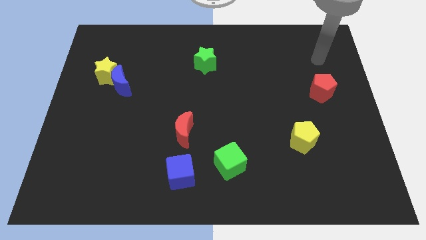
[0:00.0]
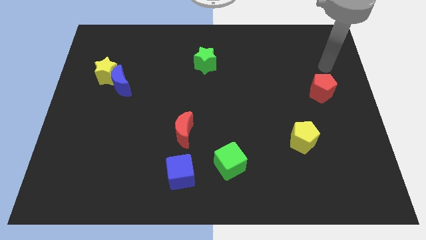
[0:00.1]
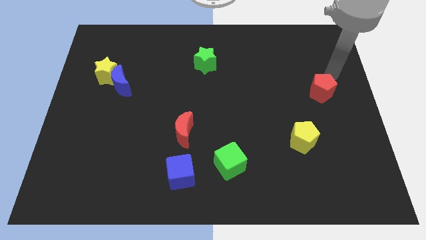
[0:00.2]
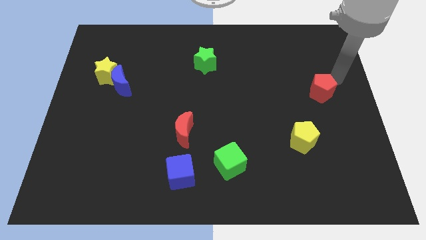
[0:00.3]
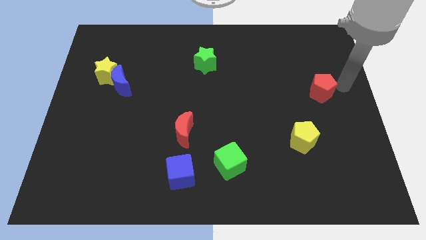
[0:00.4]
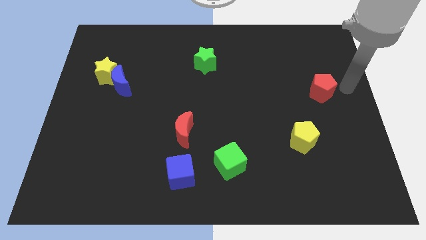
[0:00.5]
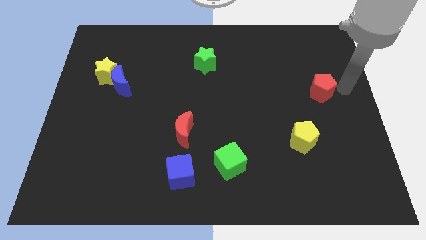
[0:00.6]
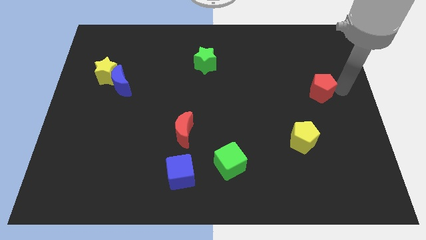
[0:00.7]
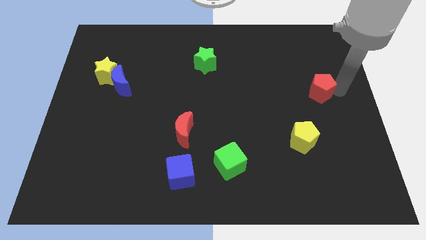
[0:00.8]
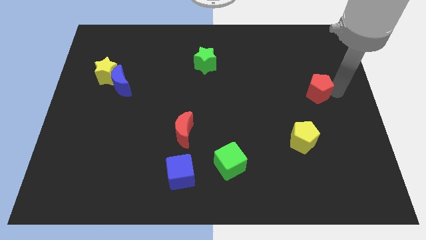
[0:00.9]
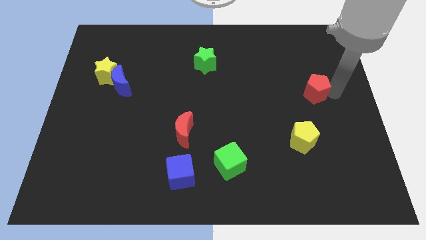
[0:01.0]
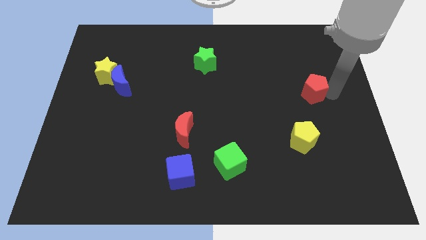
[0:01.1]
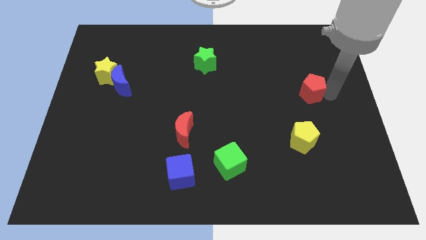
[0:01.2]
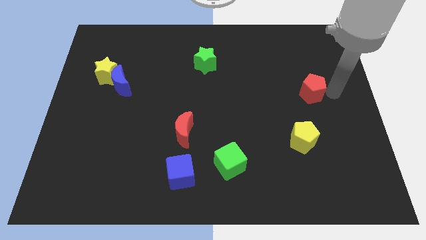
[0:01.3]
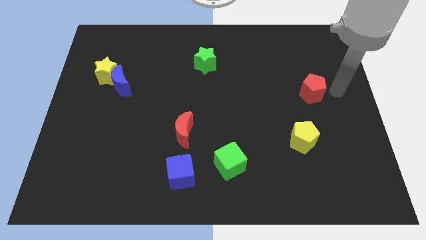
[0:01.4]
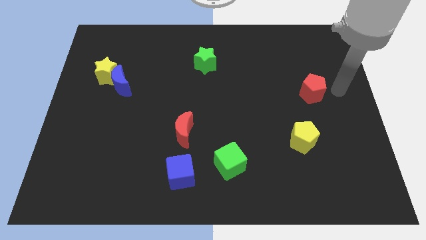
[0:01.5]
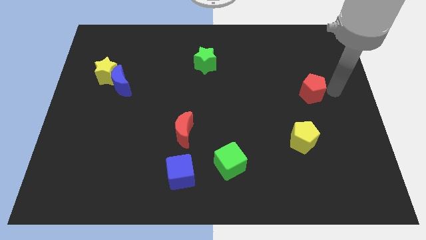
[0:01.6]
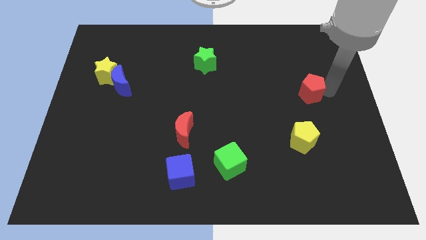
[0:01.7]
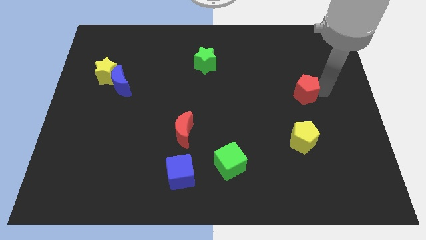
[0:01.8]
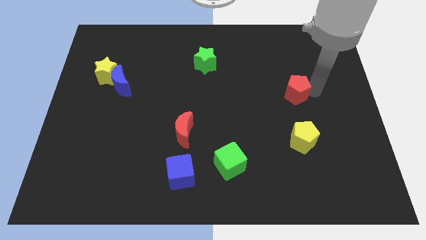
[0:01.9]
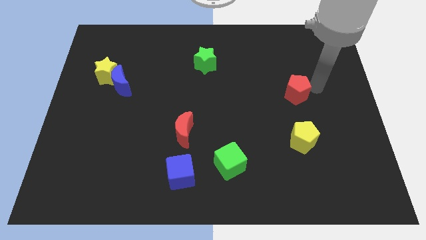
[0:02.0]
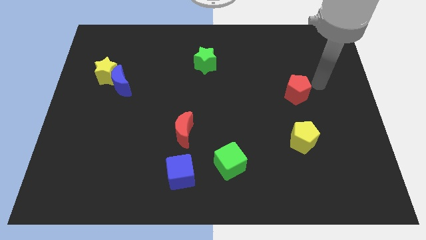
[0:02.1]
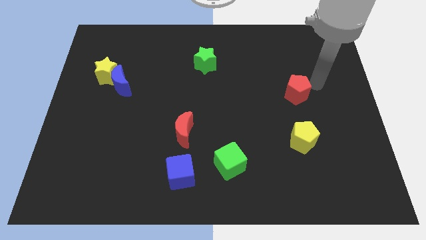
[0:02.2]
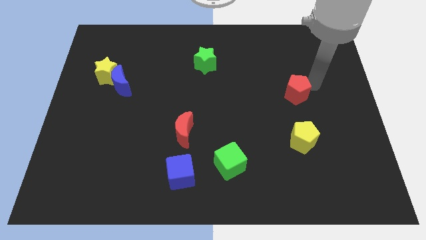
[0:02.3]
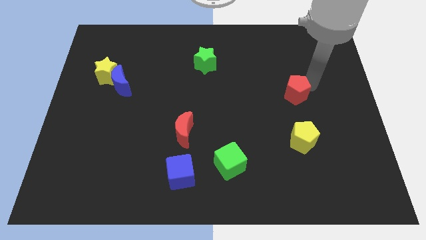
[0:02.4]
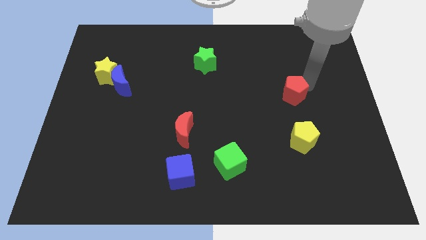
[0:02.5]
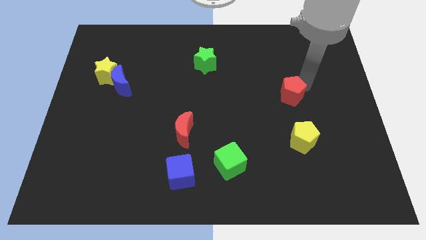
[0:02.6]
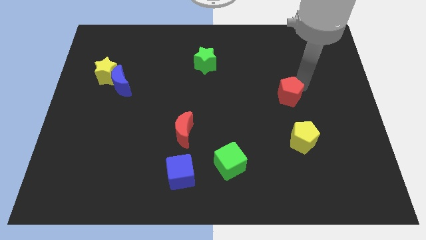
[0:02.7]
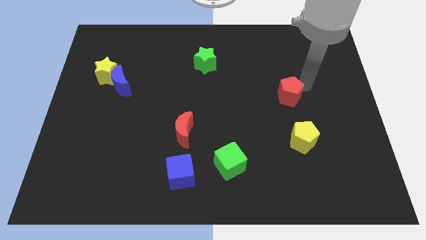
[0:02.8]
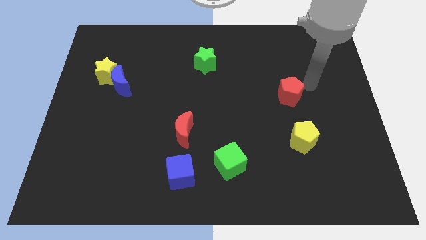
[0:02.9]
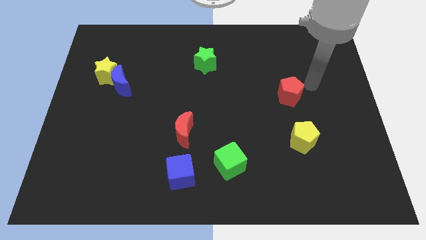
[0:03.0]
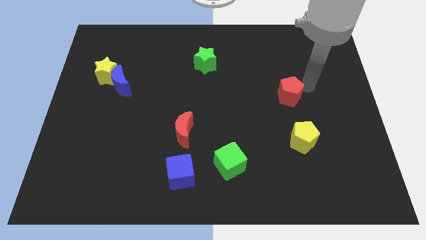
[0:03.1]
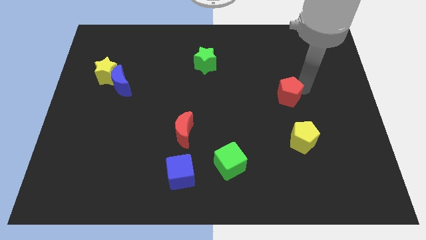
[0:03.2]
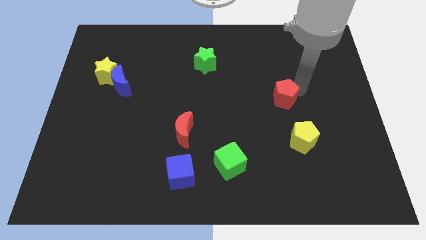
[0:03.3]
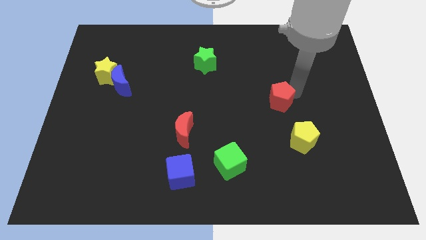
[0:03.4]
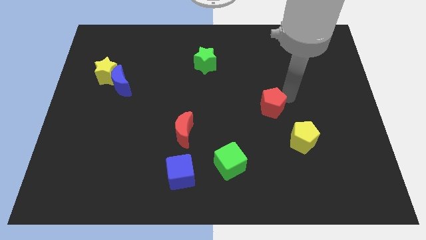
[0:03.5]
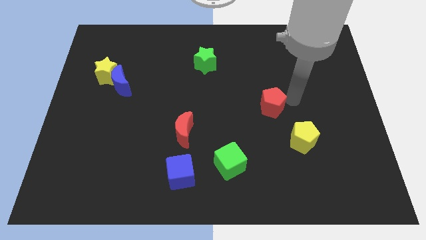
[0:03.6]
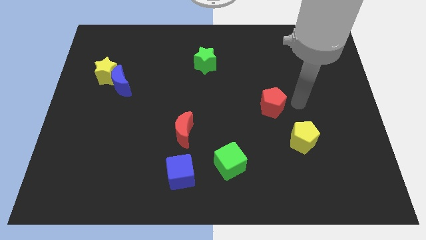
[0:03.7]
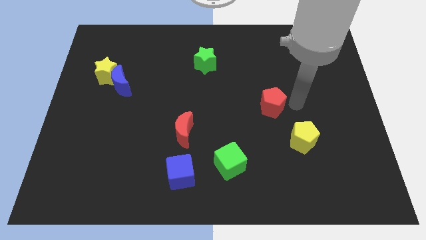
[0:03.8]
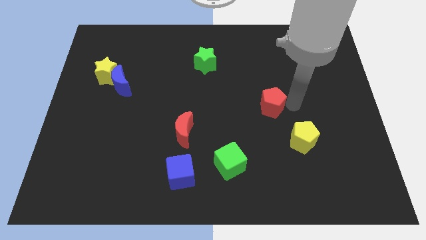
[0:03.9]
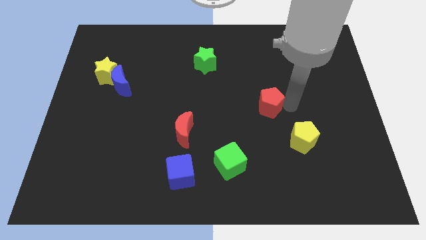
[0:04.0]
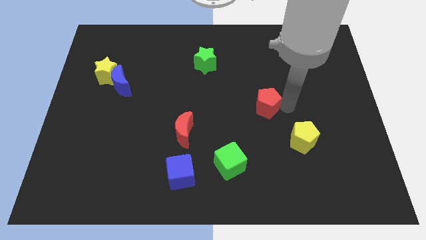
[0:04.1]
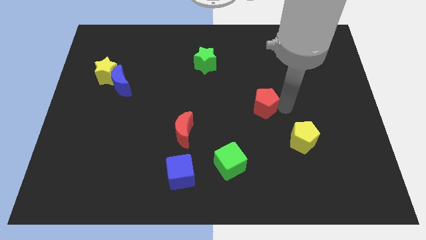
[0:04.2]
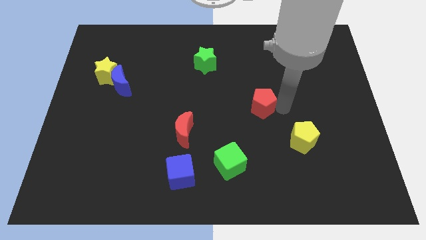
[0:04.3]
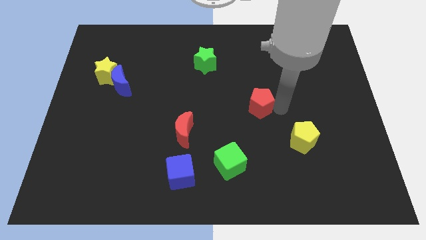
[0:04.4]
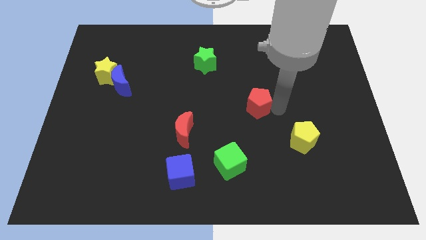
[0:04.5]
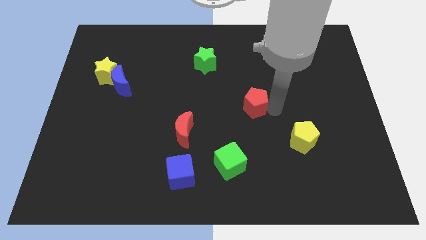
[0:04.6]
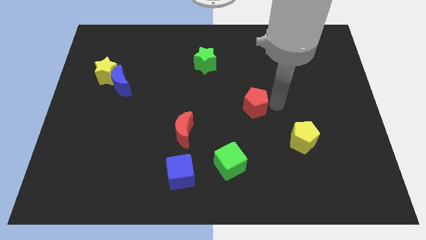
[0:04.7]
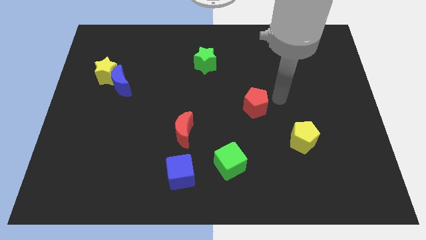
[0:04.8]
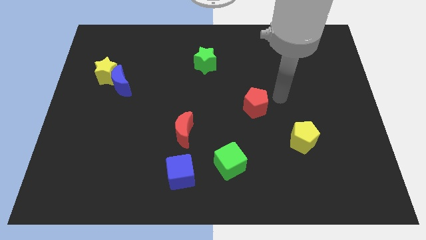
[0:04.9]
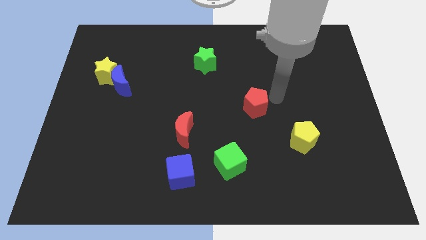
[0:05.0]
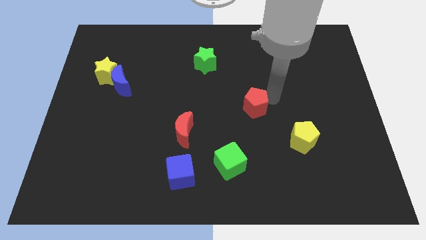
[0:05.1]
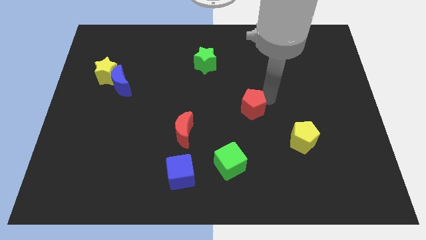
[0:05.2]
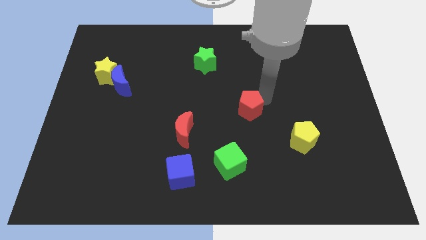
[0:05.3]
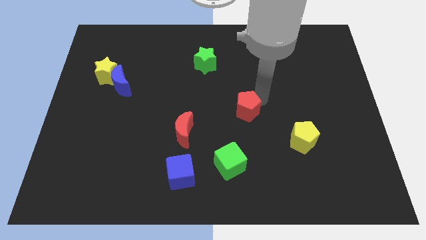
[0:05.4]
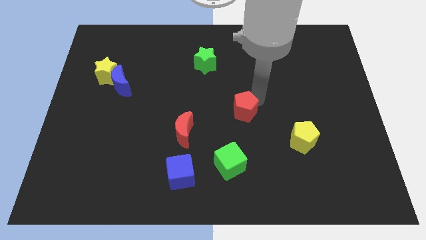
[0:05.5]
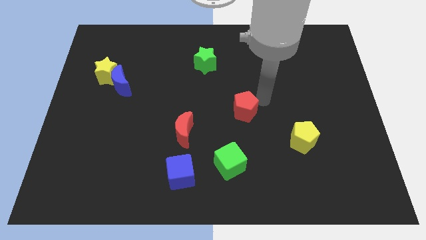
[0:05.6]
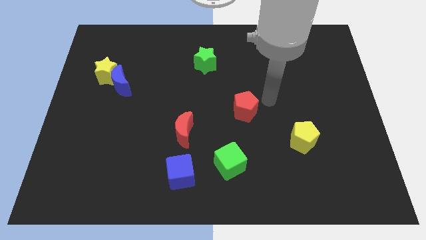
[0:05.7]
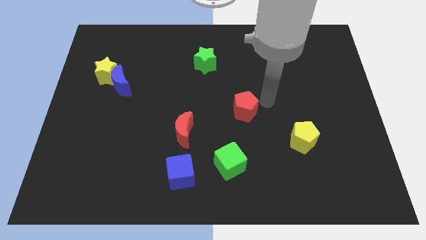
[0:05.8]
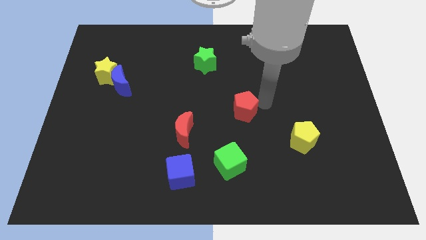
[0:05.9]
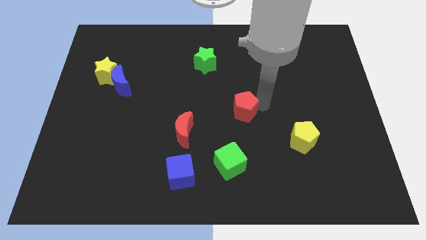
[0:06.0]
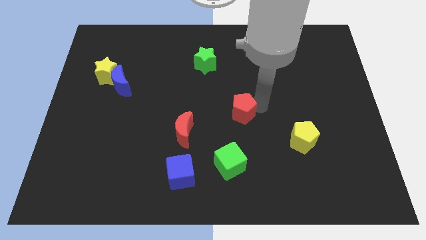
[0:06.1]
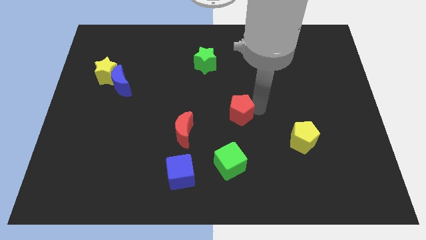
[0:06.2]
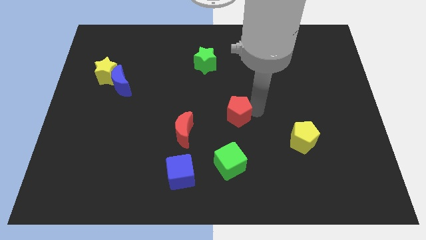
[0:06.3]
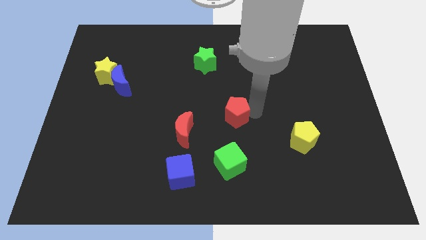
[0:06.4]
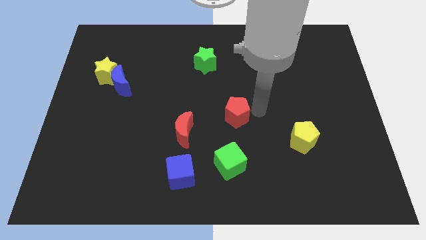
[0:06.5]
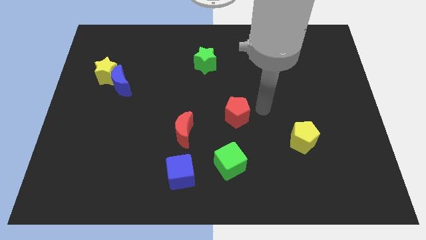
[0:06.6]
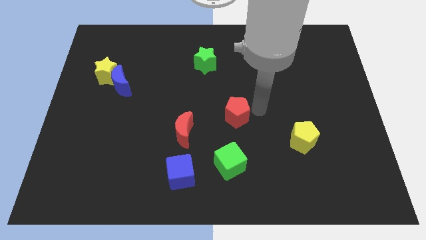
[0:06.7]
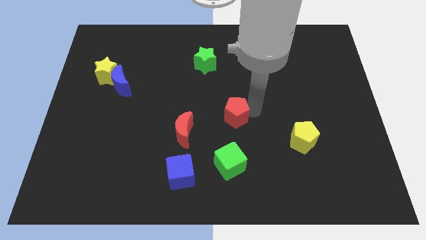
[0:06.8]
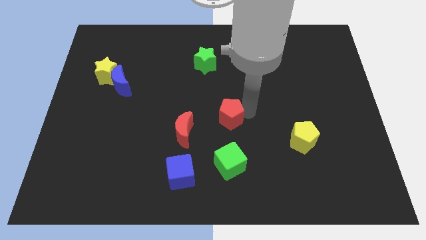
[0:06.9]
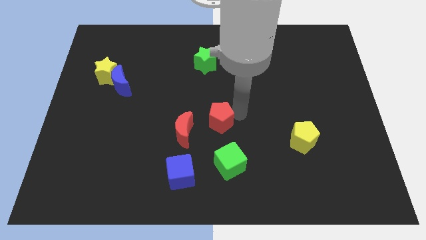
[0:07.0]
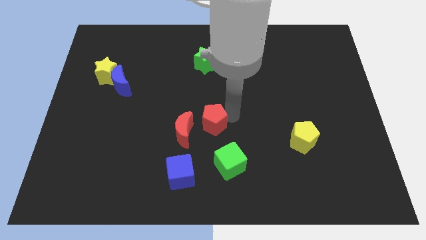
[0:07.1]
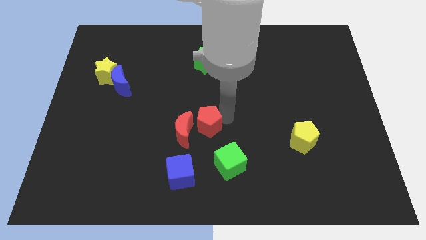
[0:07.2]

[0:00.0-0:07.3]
push the red pentagon close to the red moon

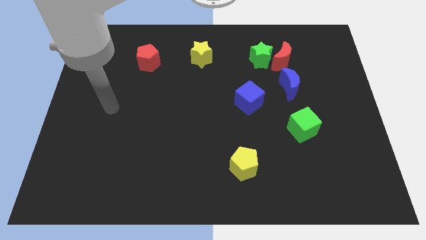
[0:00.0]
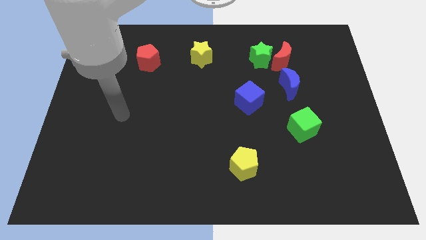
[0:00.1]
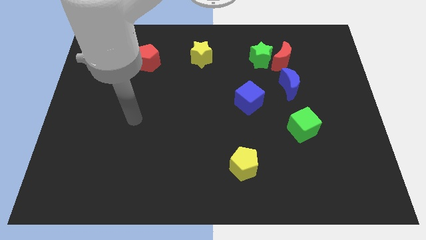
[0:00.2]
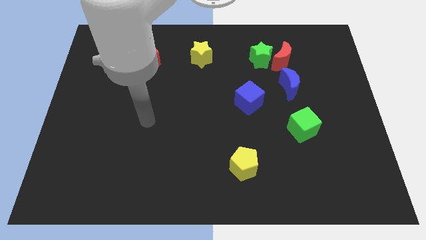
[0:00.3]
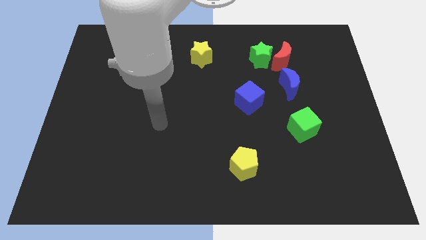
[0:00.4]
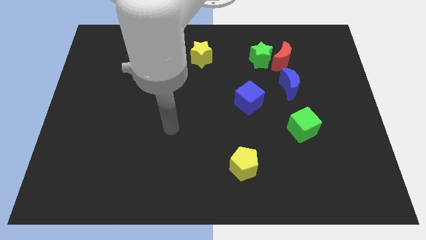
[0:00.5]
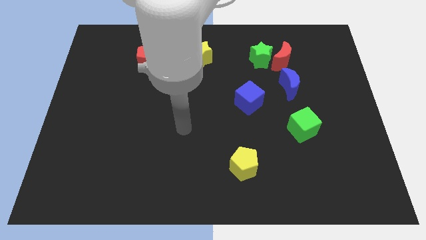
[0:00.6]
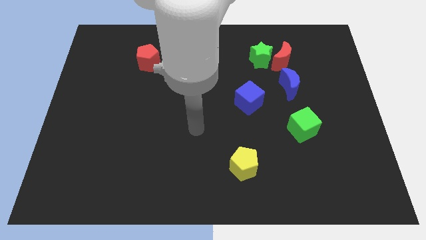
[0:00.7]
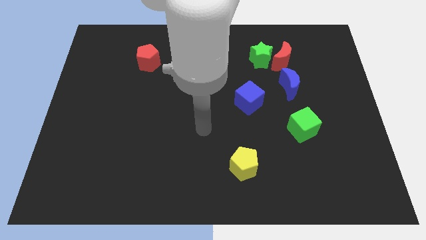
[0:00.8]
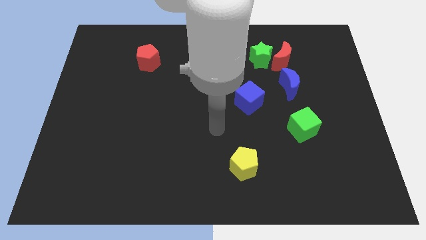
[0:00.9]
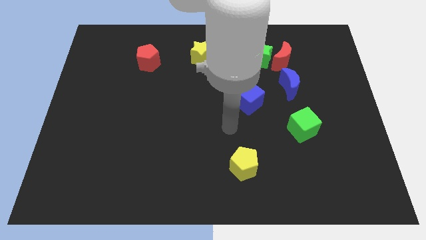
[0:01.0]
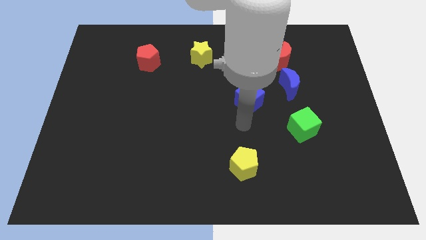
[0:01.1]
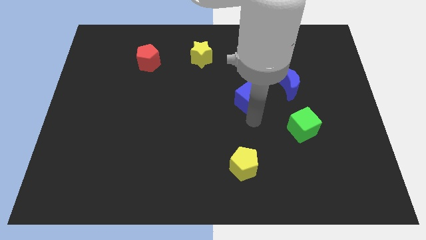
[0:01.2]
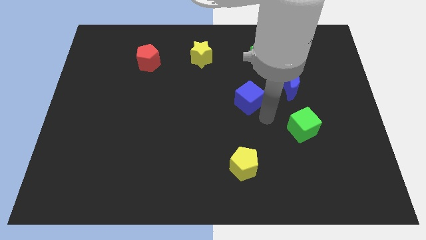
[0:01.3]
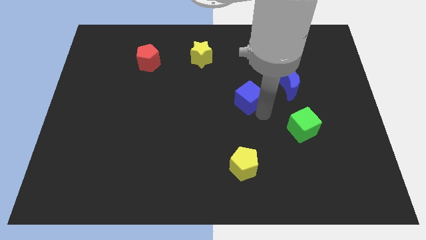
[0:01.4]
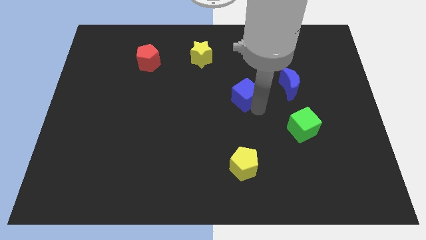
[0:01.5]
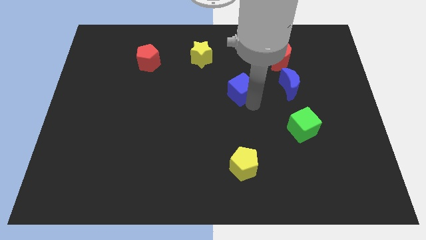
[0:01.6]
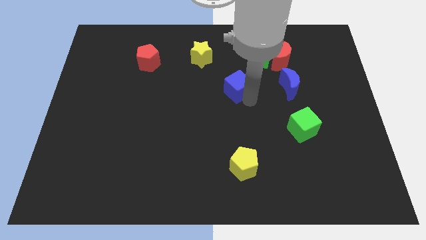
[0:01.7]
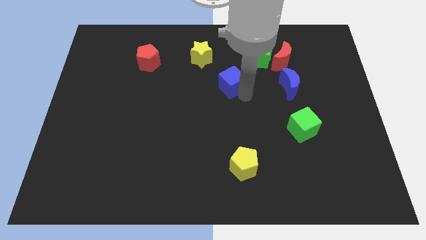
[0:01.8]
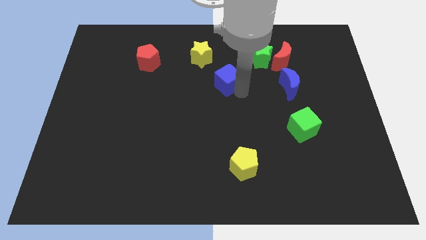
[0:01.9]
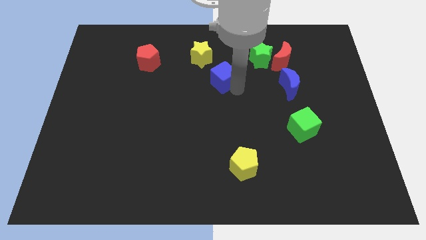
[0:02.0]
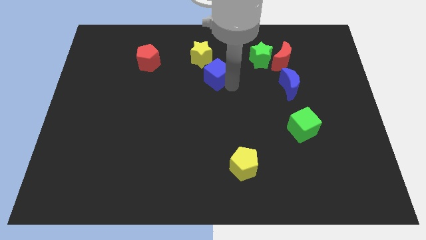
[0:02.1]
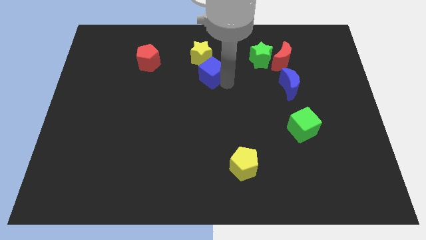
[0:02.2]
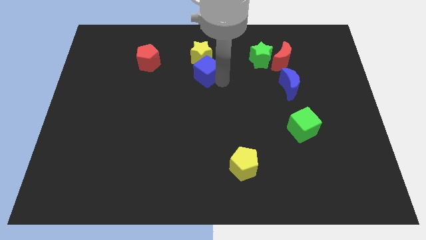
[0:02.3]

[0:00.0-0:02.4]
move the blue cube to the yellow star
